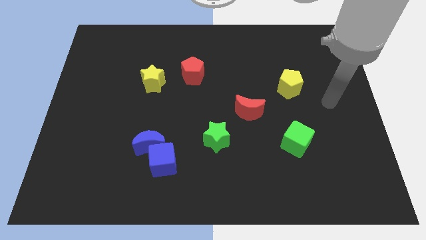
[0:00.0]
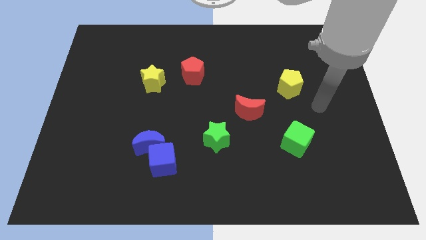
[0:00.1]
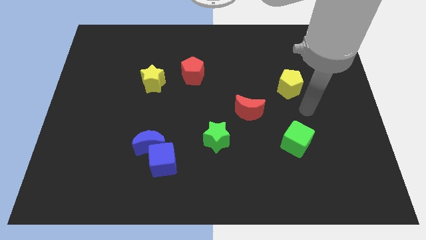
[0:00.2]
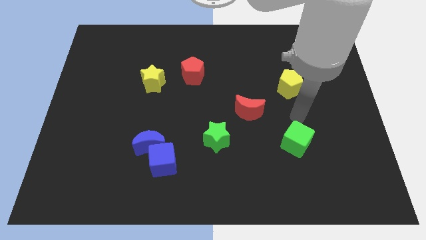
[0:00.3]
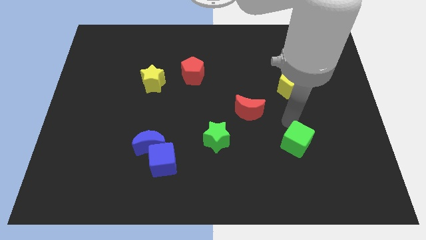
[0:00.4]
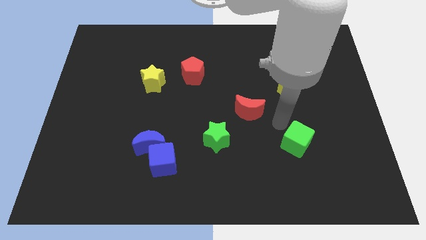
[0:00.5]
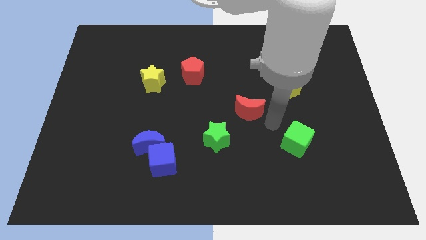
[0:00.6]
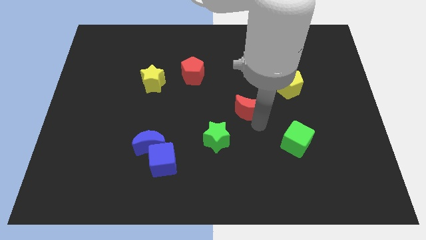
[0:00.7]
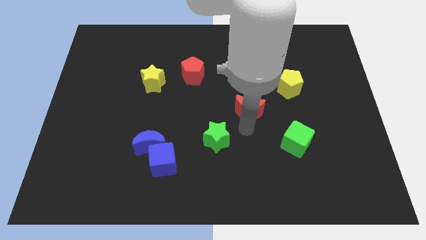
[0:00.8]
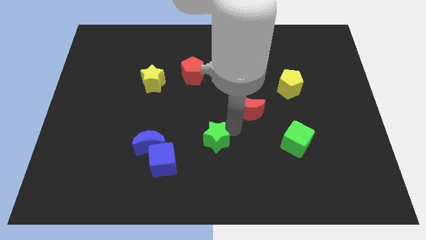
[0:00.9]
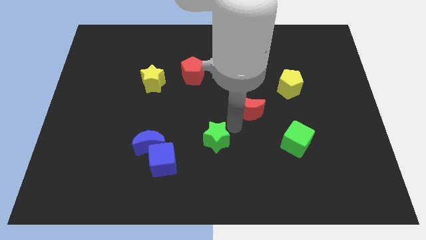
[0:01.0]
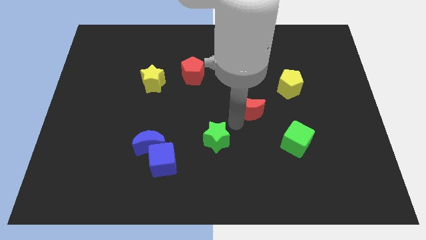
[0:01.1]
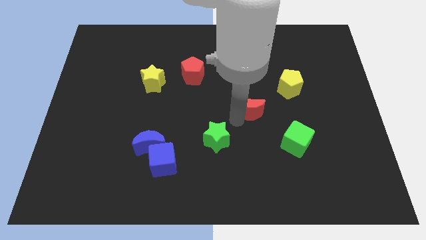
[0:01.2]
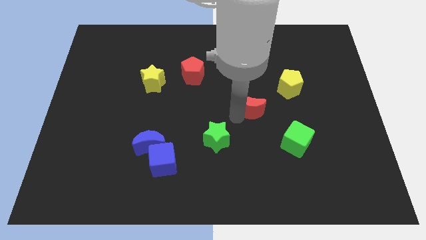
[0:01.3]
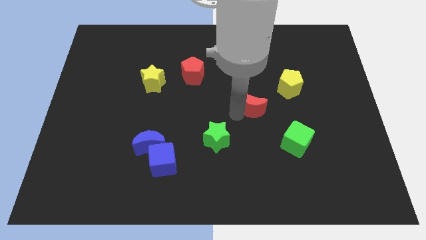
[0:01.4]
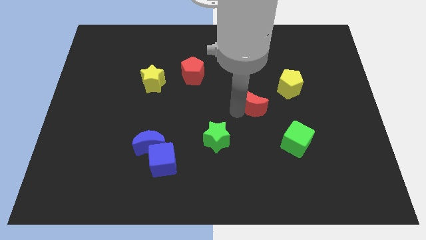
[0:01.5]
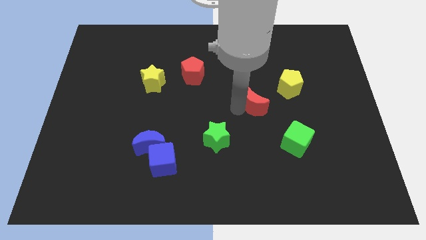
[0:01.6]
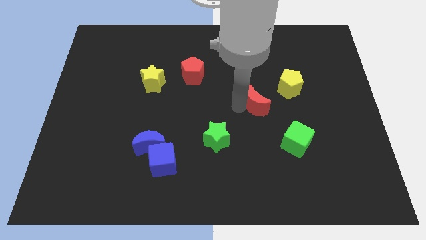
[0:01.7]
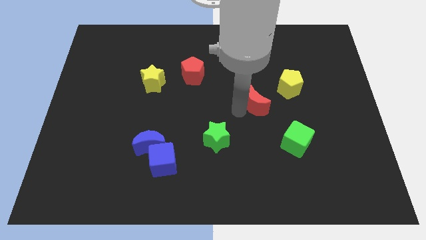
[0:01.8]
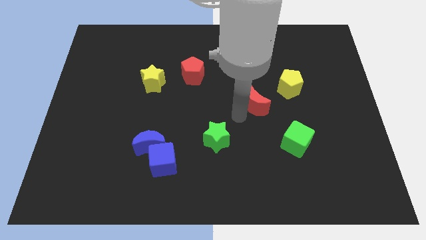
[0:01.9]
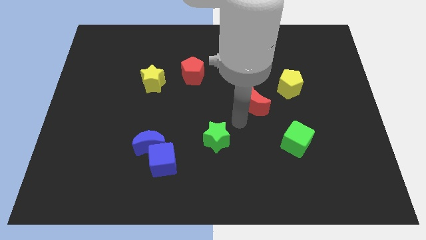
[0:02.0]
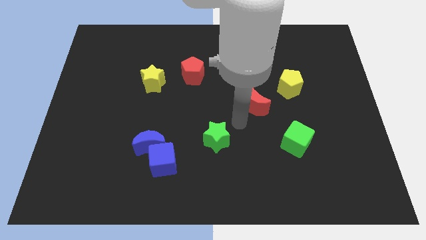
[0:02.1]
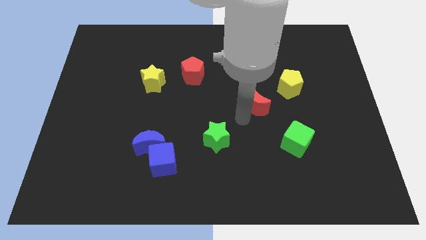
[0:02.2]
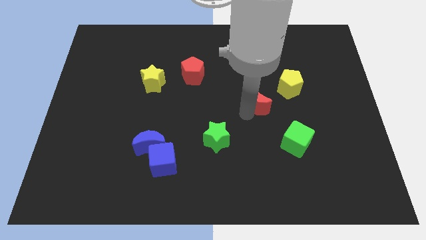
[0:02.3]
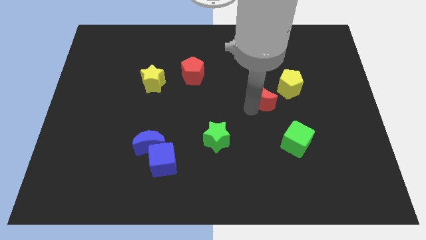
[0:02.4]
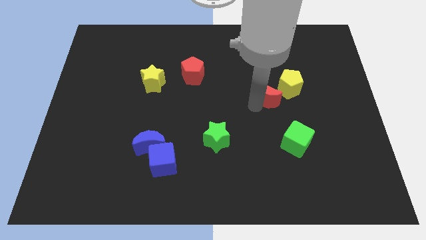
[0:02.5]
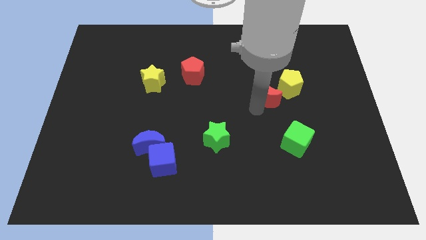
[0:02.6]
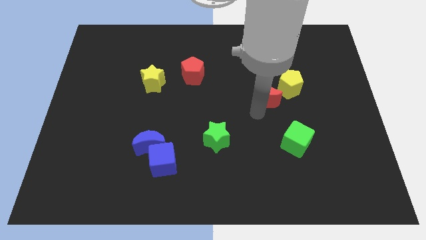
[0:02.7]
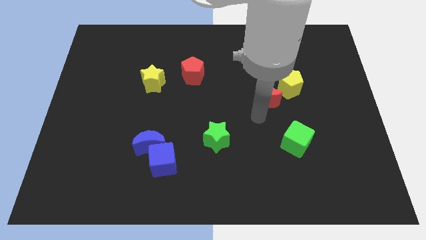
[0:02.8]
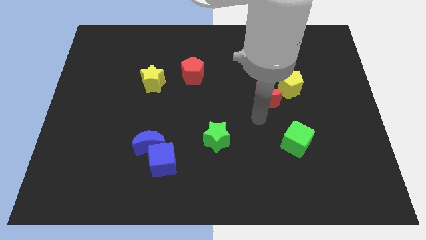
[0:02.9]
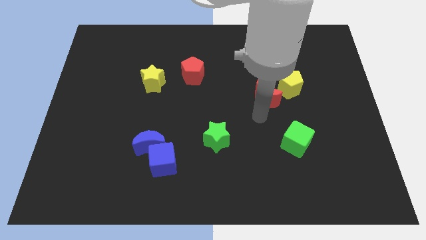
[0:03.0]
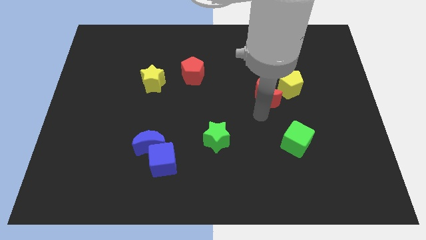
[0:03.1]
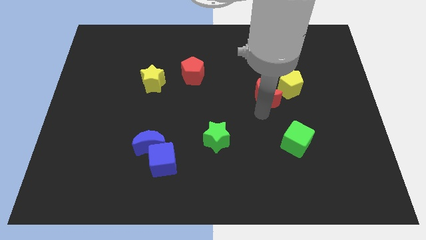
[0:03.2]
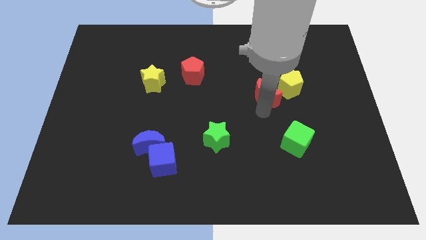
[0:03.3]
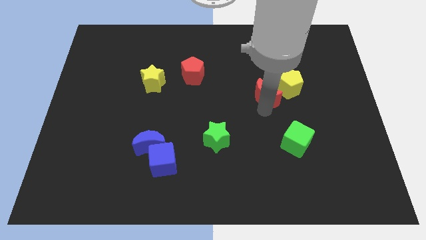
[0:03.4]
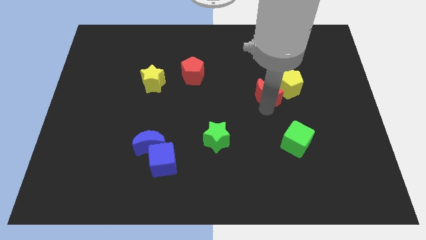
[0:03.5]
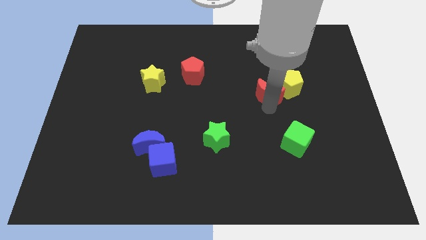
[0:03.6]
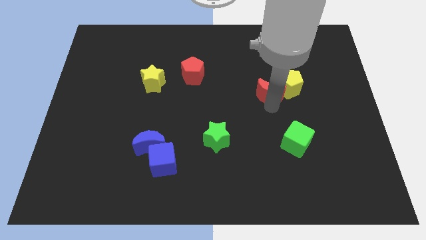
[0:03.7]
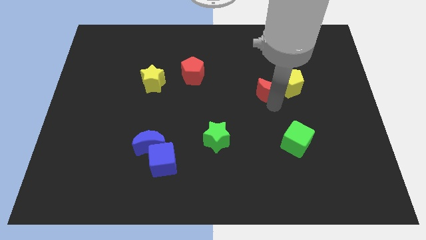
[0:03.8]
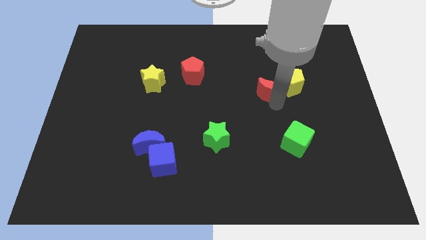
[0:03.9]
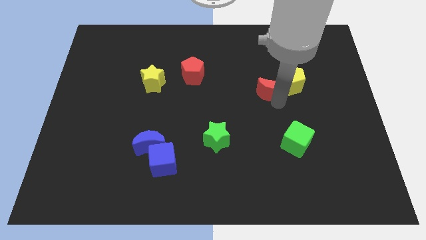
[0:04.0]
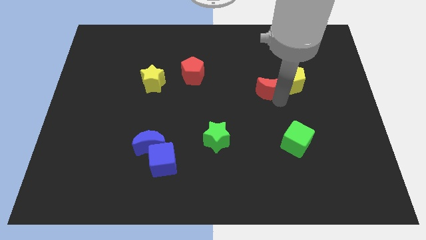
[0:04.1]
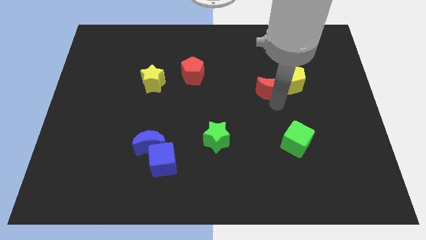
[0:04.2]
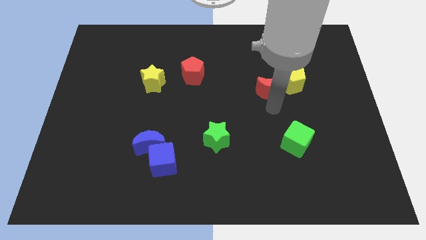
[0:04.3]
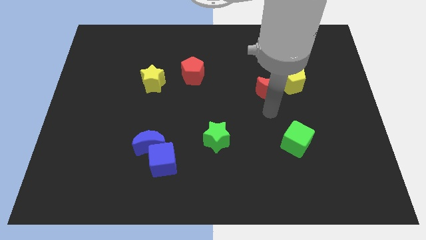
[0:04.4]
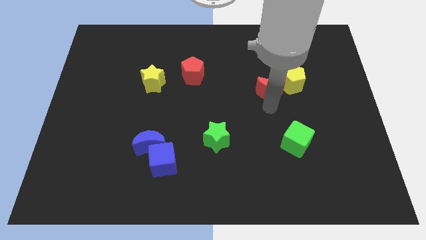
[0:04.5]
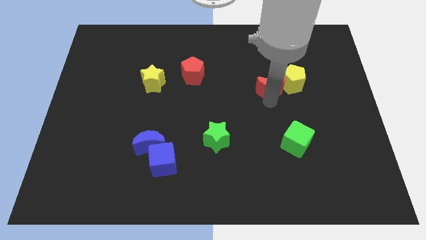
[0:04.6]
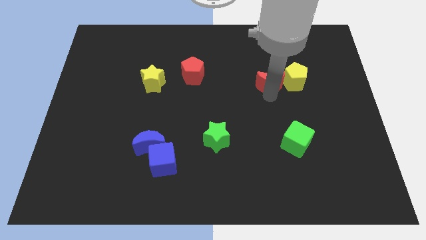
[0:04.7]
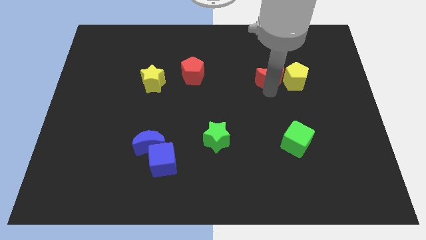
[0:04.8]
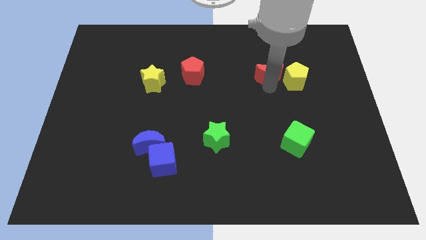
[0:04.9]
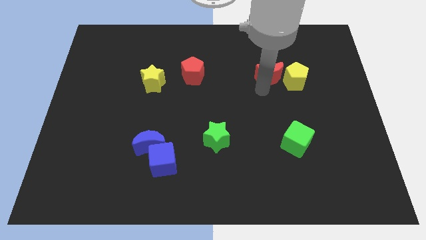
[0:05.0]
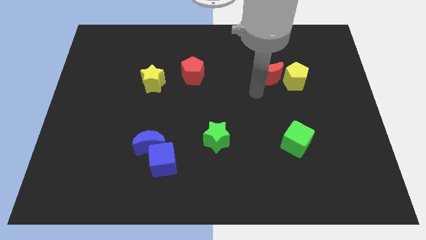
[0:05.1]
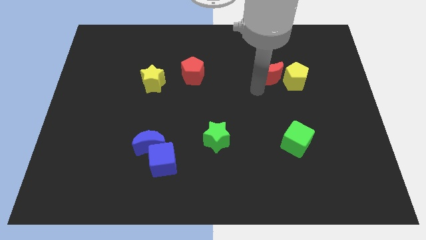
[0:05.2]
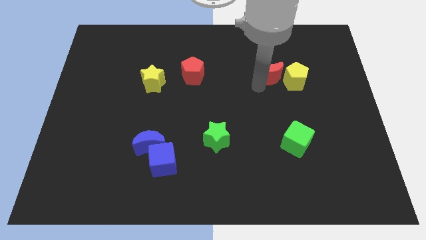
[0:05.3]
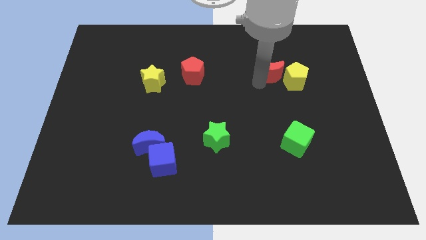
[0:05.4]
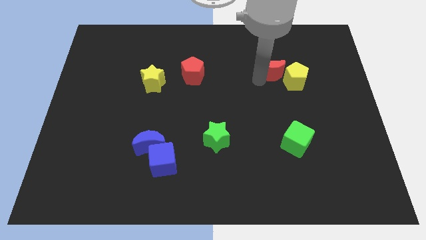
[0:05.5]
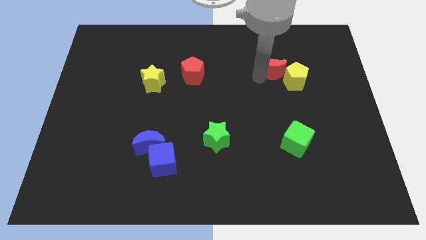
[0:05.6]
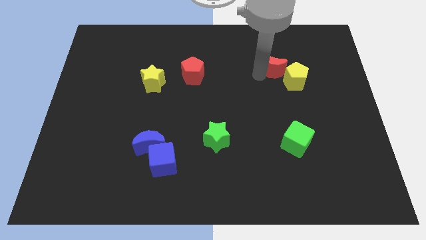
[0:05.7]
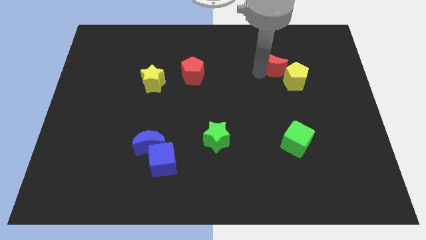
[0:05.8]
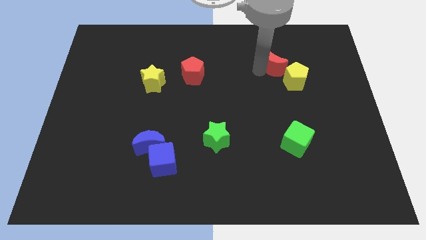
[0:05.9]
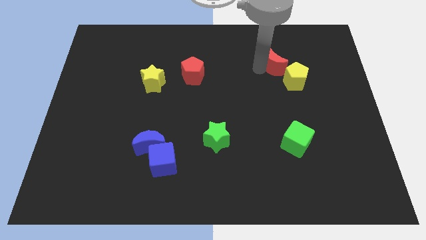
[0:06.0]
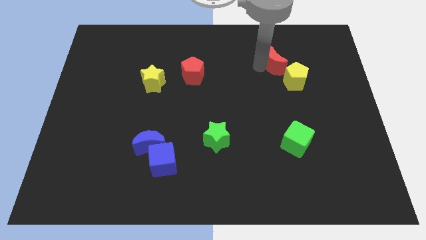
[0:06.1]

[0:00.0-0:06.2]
slide the red moon to the top of the yellow pentagon

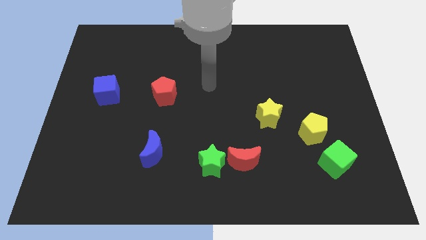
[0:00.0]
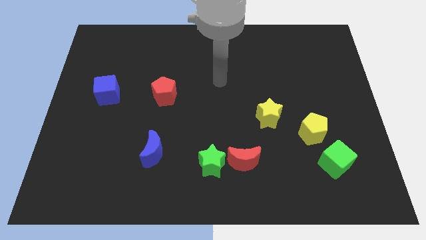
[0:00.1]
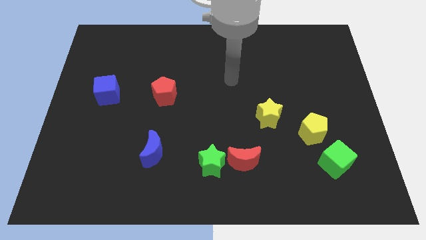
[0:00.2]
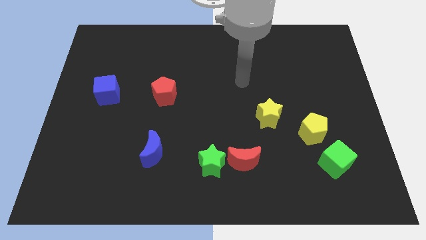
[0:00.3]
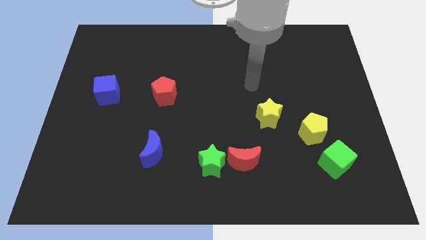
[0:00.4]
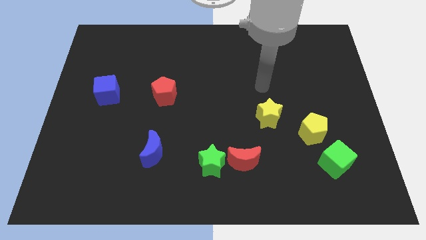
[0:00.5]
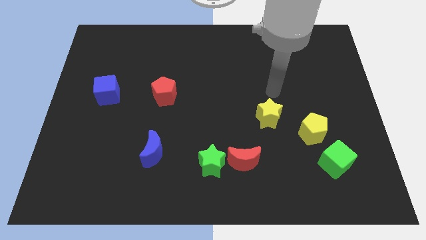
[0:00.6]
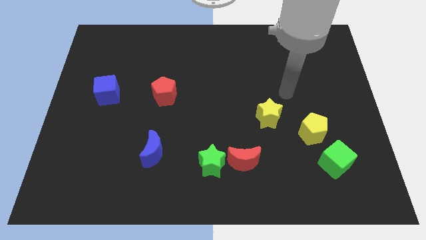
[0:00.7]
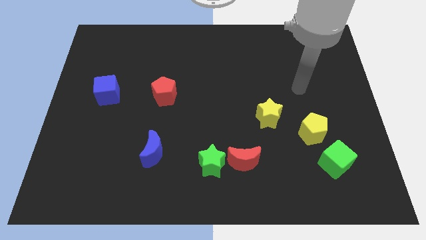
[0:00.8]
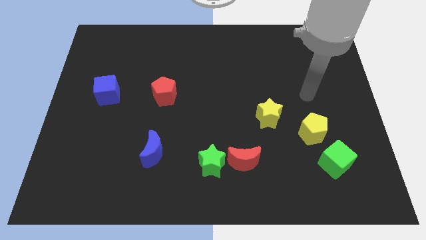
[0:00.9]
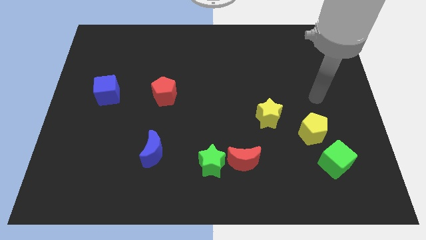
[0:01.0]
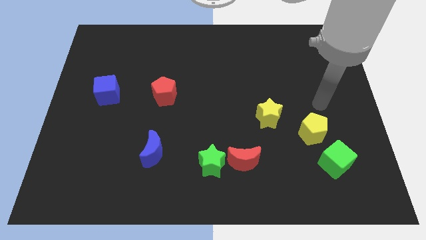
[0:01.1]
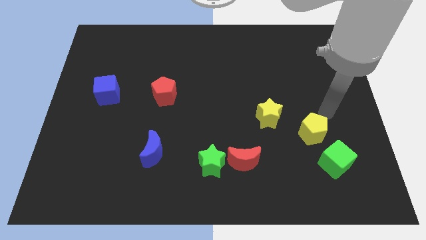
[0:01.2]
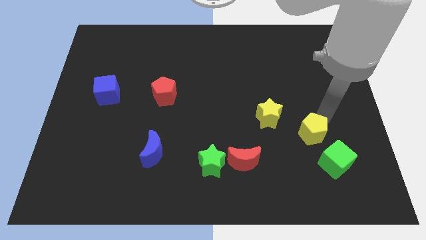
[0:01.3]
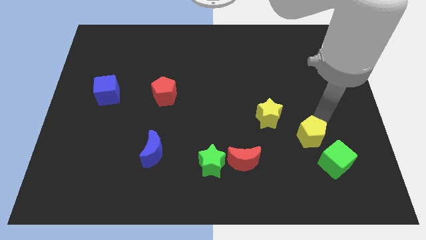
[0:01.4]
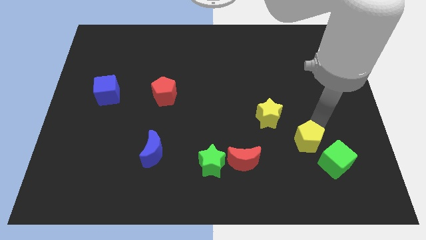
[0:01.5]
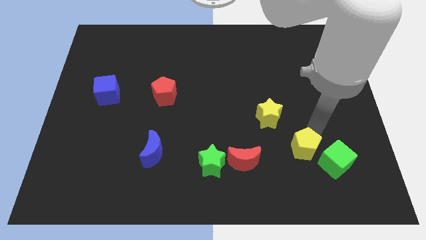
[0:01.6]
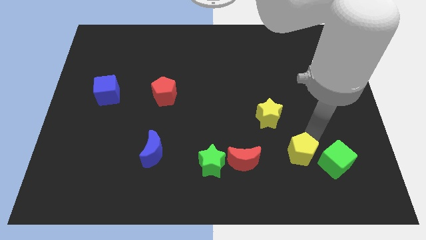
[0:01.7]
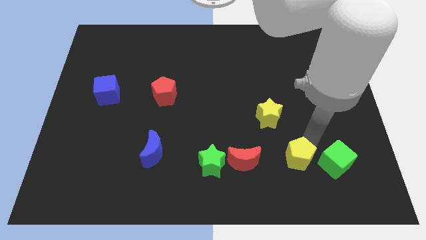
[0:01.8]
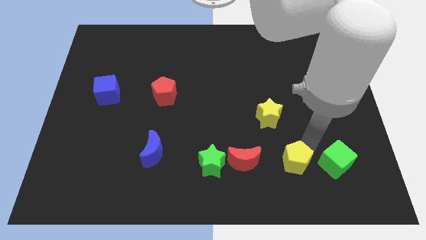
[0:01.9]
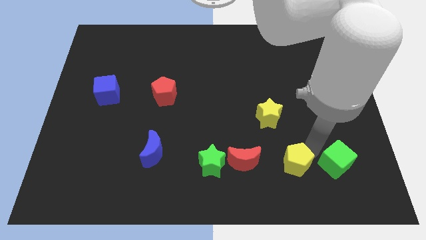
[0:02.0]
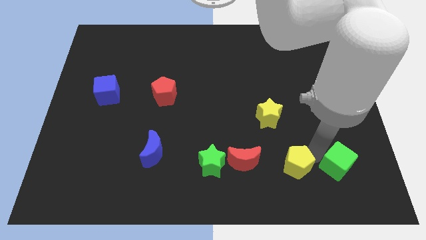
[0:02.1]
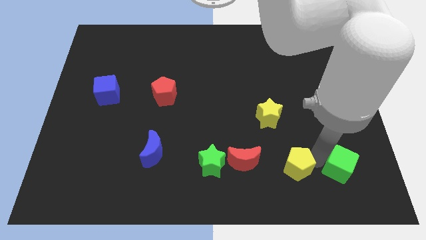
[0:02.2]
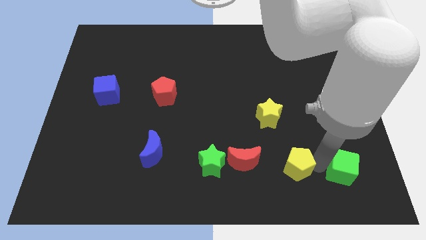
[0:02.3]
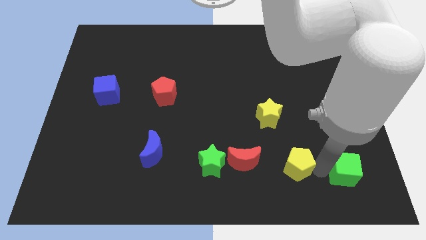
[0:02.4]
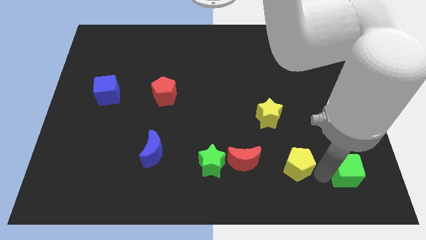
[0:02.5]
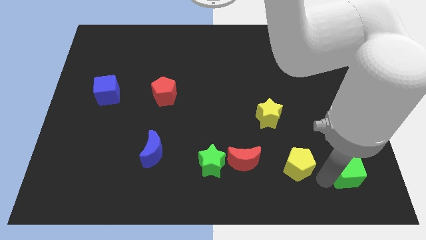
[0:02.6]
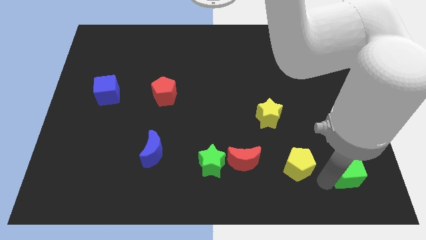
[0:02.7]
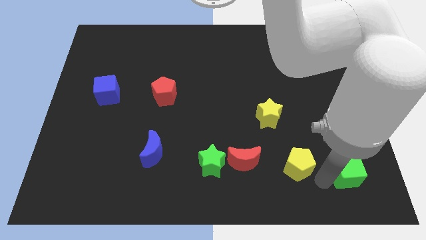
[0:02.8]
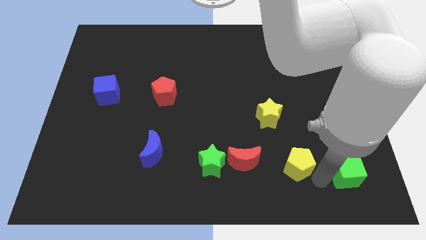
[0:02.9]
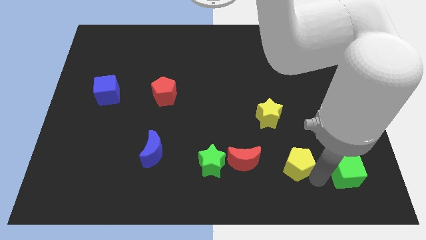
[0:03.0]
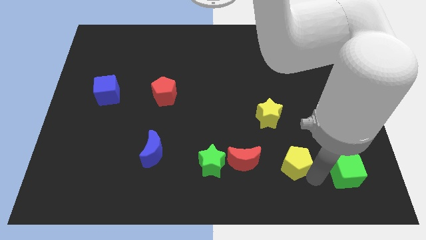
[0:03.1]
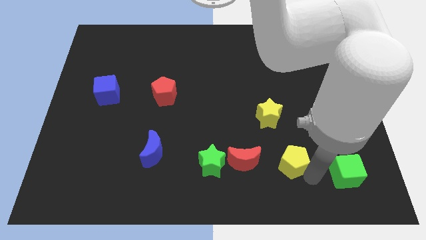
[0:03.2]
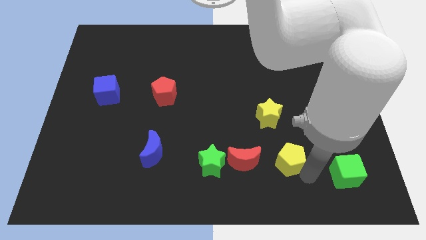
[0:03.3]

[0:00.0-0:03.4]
move the yellow pentagon right of the green star
